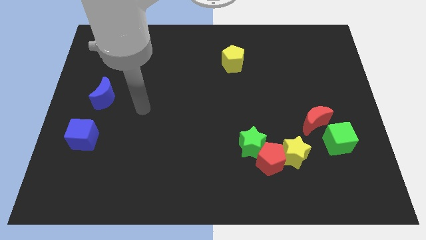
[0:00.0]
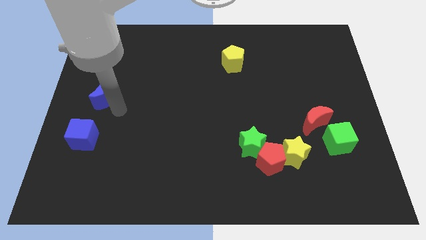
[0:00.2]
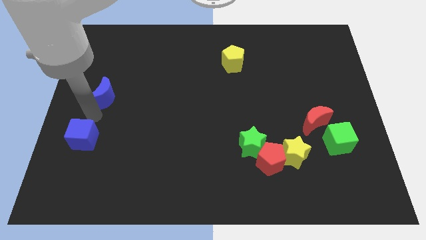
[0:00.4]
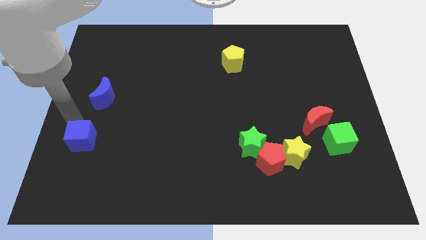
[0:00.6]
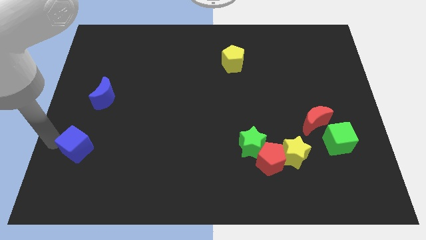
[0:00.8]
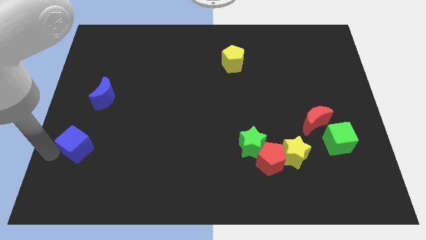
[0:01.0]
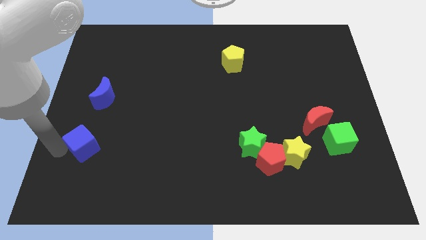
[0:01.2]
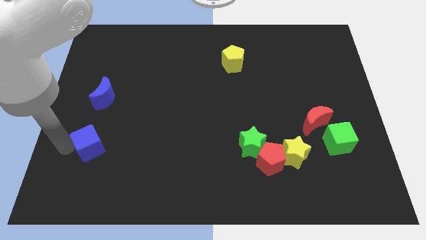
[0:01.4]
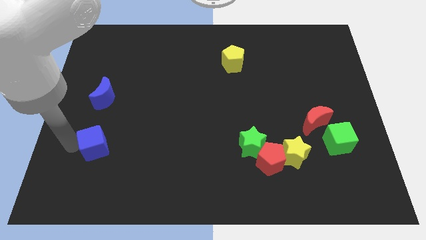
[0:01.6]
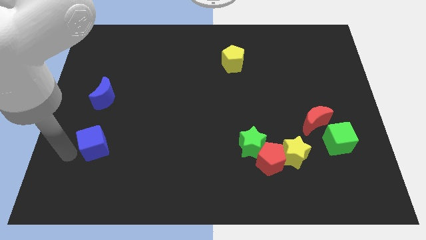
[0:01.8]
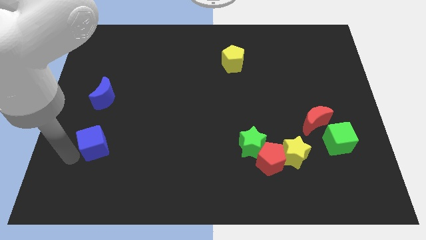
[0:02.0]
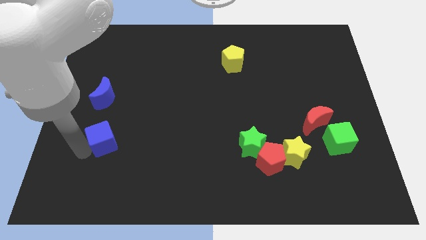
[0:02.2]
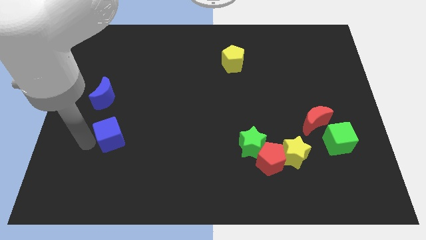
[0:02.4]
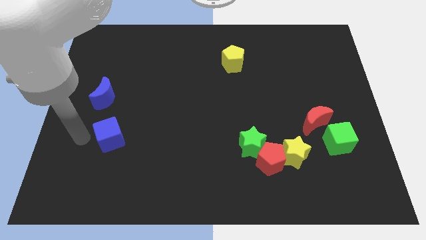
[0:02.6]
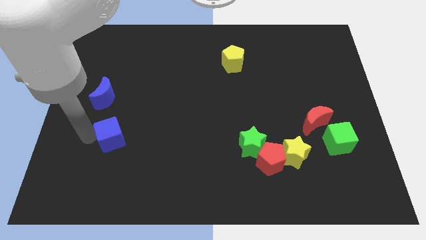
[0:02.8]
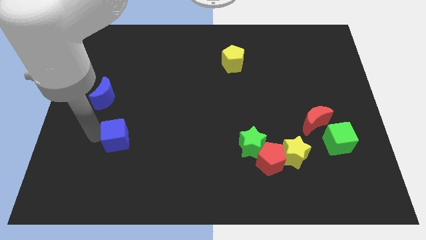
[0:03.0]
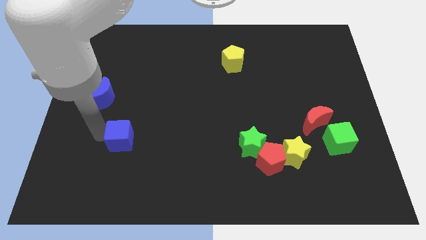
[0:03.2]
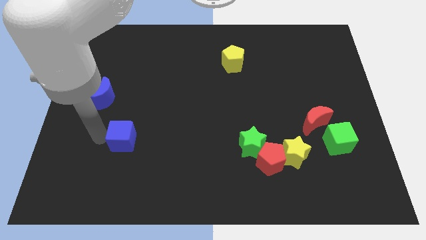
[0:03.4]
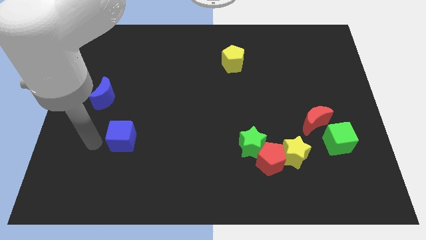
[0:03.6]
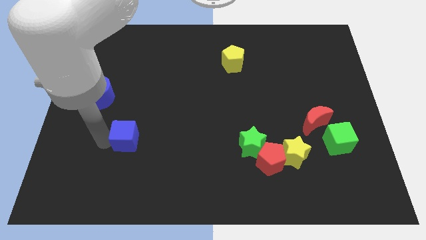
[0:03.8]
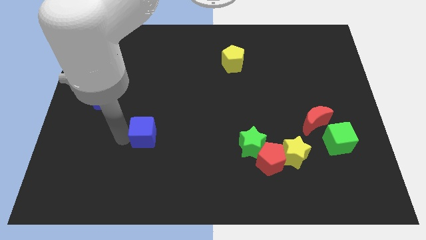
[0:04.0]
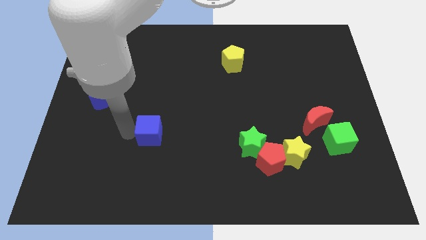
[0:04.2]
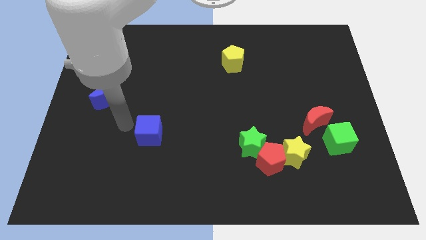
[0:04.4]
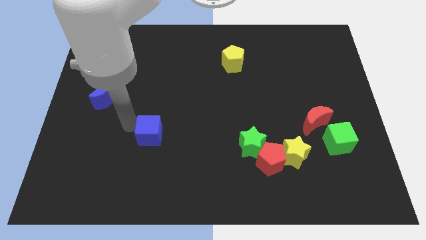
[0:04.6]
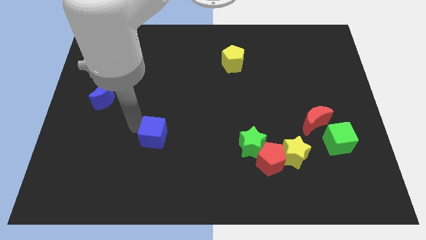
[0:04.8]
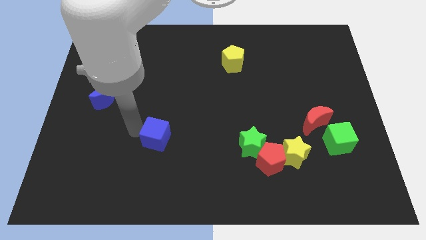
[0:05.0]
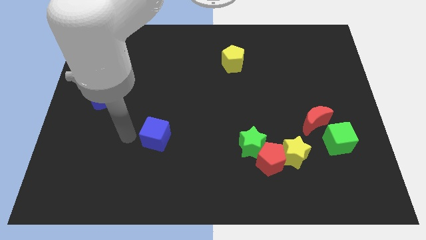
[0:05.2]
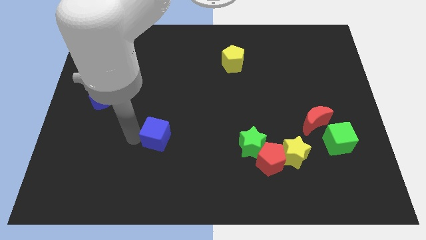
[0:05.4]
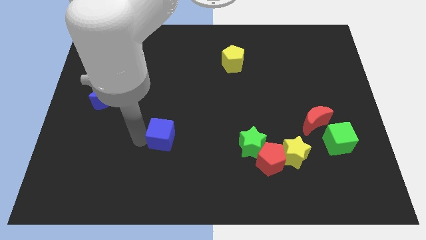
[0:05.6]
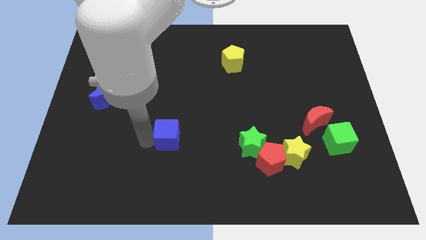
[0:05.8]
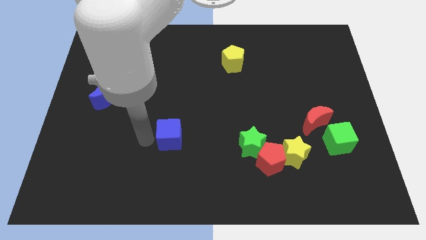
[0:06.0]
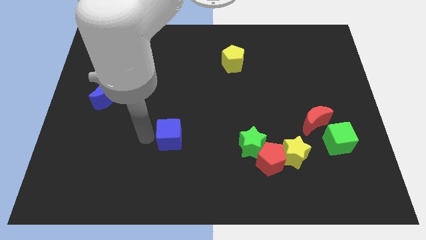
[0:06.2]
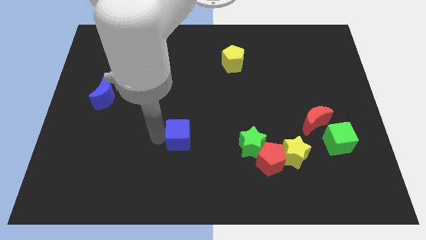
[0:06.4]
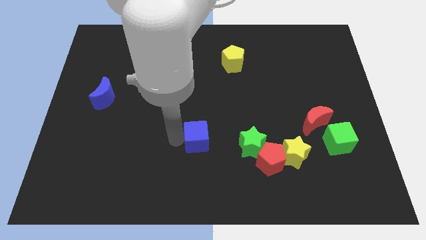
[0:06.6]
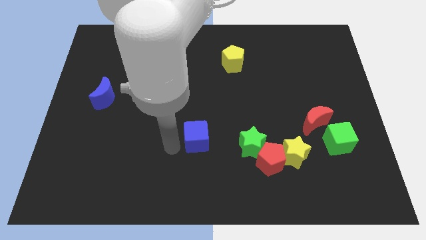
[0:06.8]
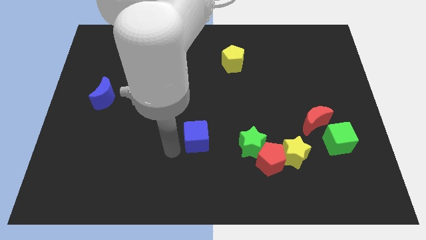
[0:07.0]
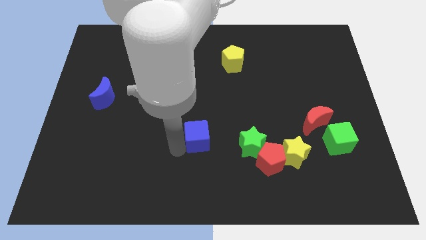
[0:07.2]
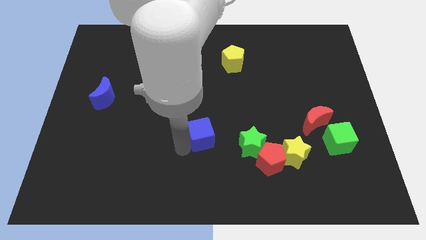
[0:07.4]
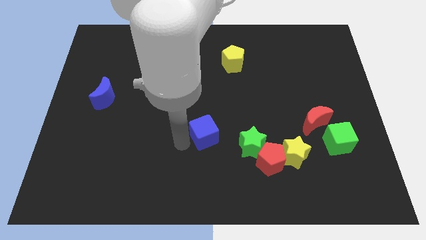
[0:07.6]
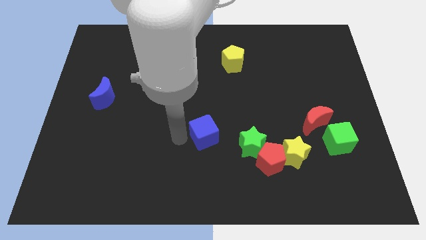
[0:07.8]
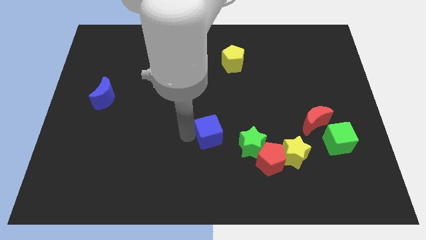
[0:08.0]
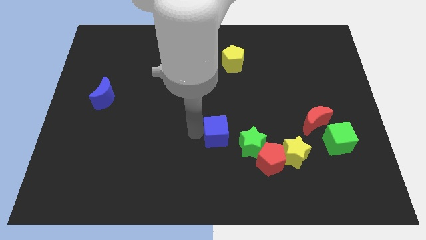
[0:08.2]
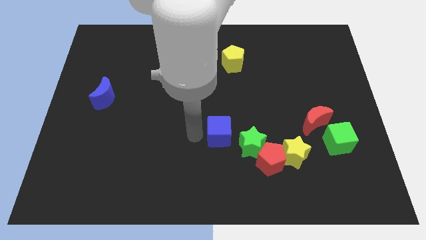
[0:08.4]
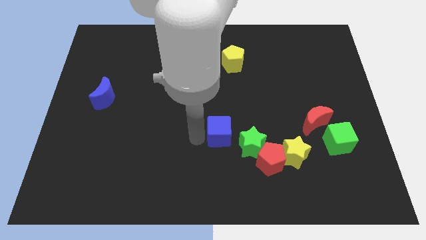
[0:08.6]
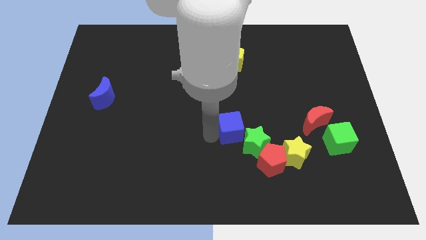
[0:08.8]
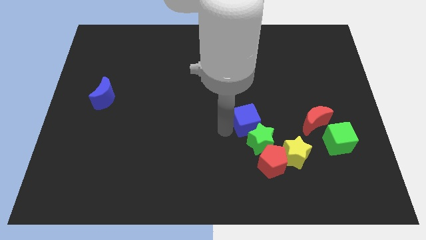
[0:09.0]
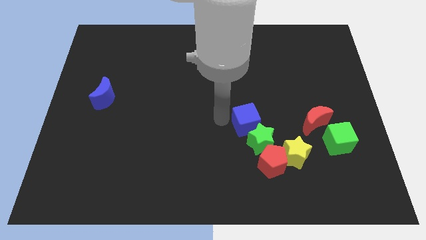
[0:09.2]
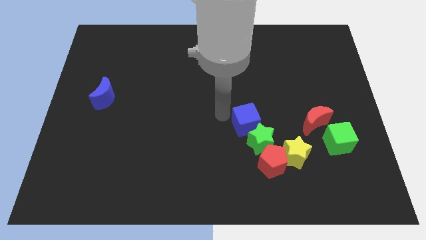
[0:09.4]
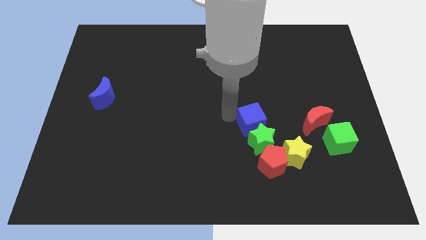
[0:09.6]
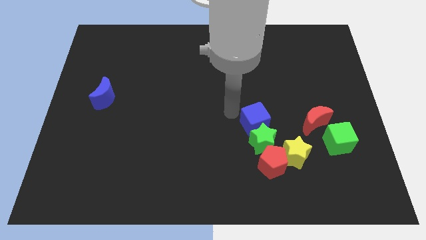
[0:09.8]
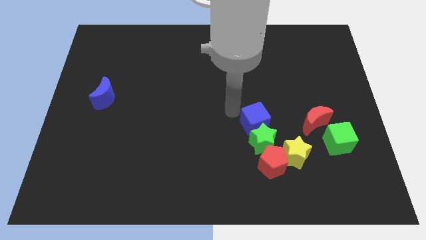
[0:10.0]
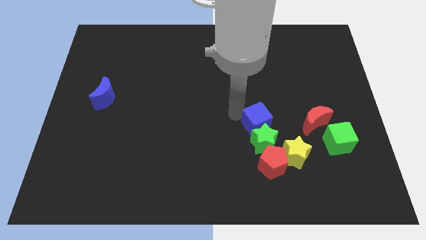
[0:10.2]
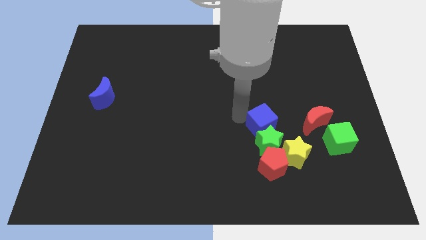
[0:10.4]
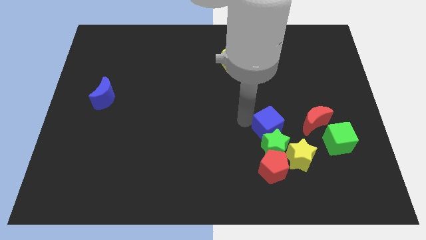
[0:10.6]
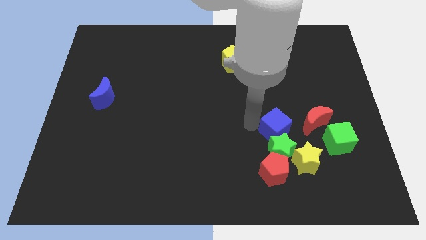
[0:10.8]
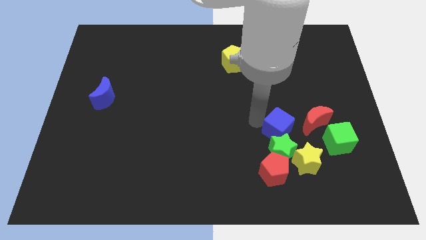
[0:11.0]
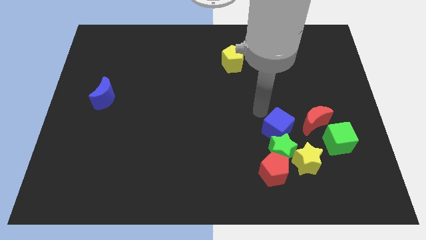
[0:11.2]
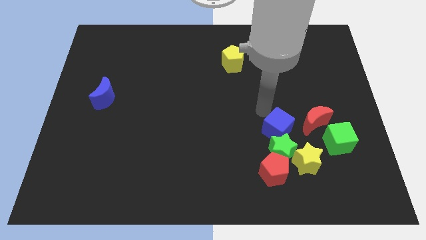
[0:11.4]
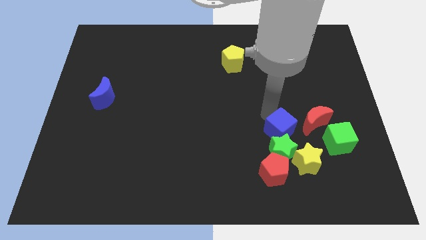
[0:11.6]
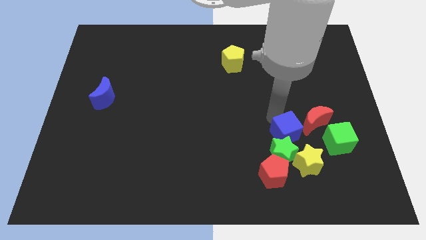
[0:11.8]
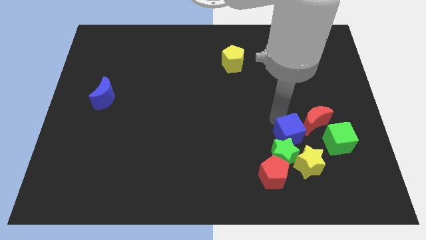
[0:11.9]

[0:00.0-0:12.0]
push the blue cube diagonally up and to the right of the red pentagon
